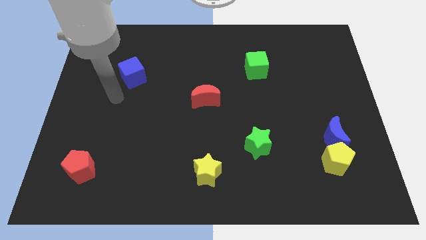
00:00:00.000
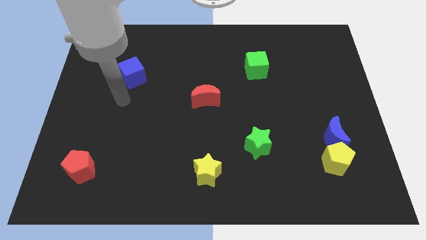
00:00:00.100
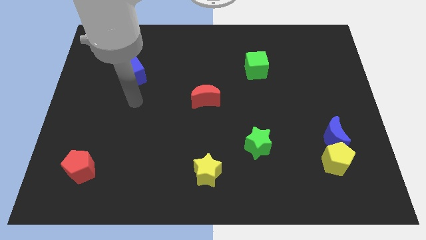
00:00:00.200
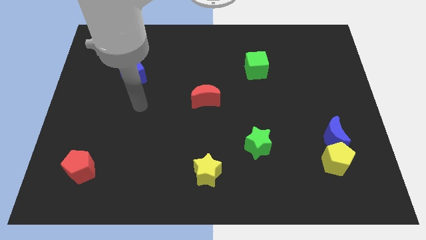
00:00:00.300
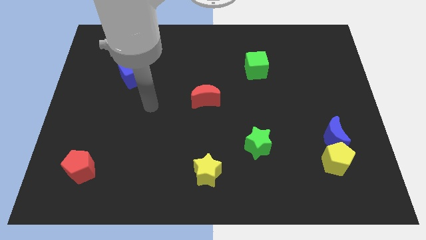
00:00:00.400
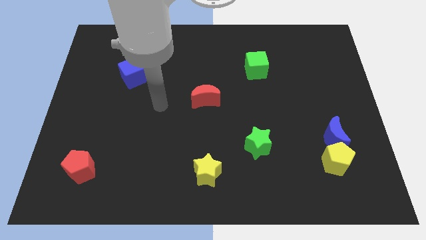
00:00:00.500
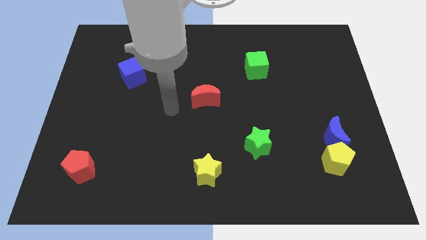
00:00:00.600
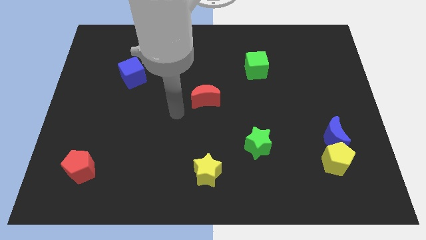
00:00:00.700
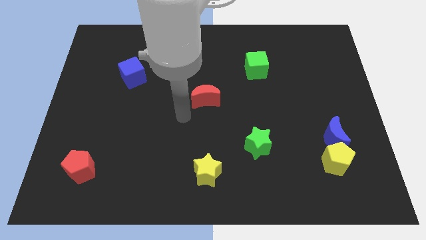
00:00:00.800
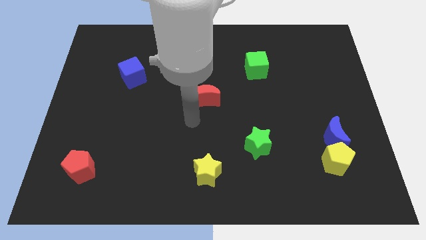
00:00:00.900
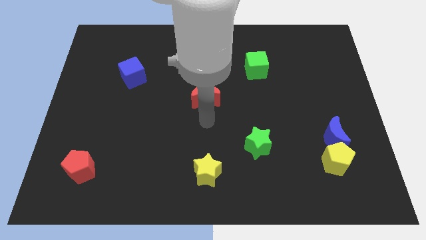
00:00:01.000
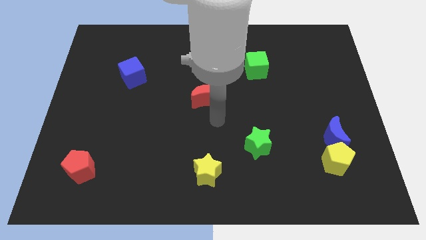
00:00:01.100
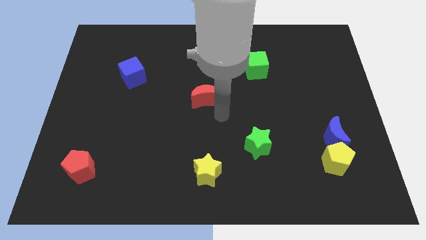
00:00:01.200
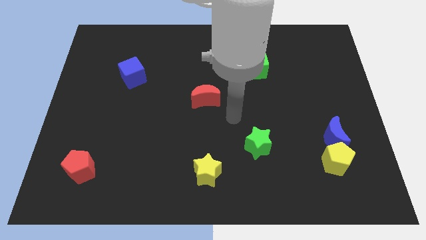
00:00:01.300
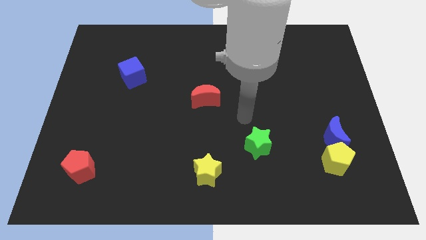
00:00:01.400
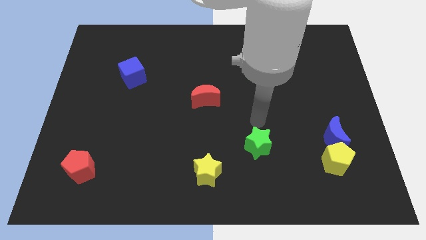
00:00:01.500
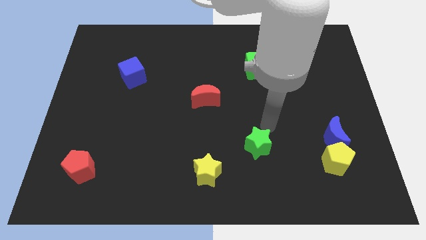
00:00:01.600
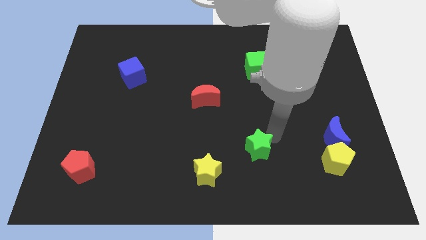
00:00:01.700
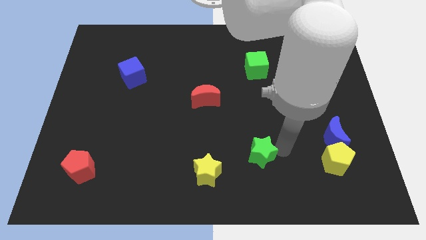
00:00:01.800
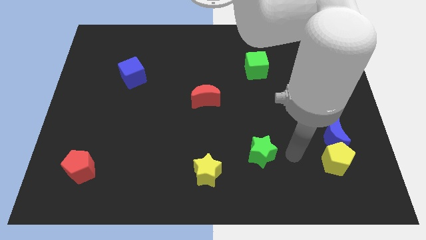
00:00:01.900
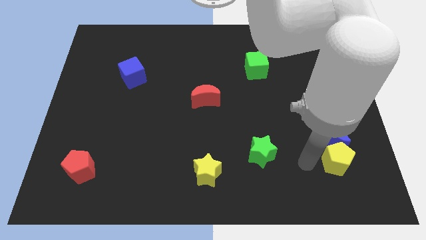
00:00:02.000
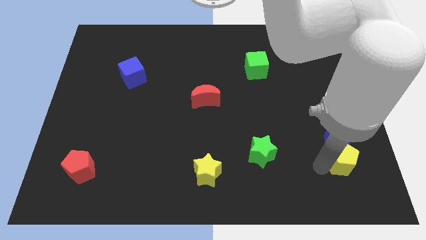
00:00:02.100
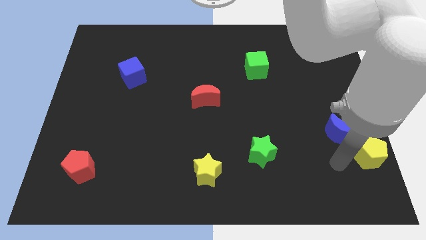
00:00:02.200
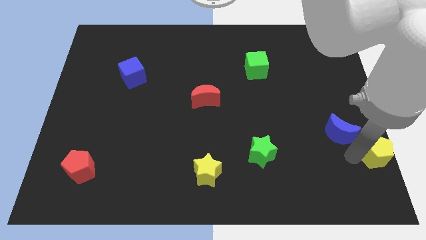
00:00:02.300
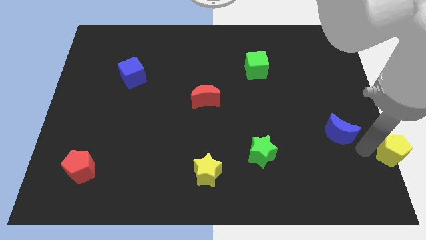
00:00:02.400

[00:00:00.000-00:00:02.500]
separate the blue moon from the yellow pentagon

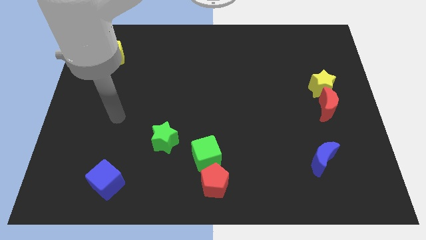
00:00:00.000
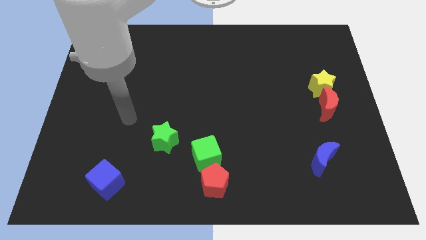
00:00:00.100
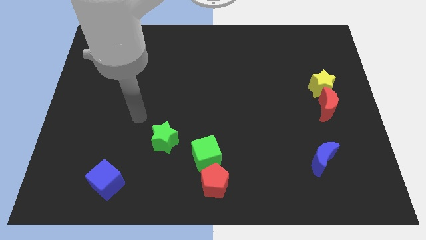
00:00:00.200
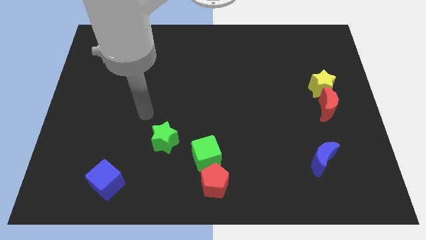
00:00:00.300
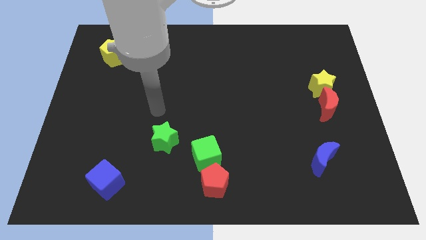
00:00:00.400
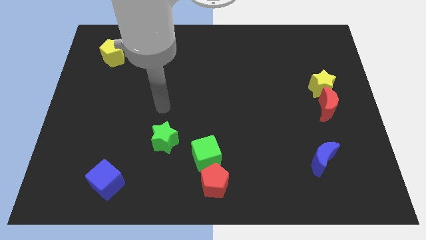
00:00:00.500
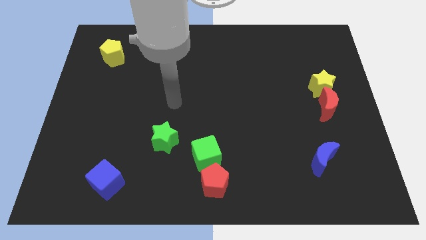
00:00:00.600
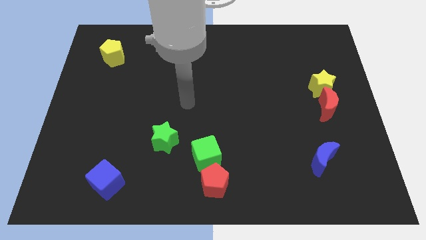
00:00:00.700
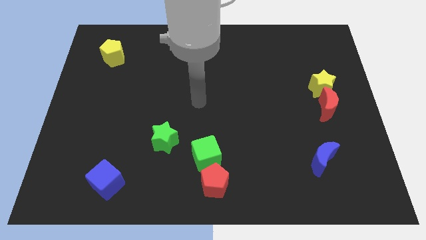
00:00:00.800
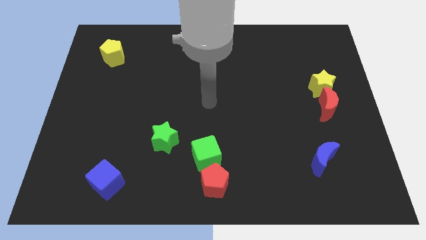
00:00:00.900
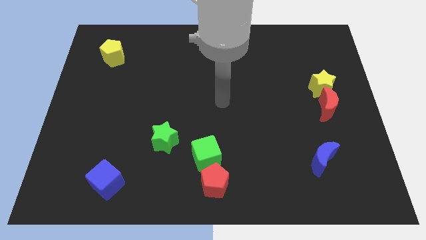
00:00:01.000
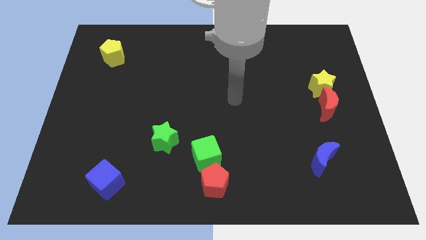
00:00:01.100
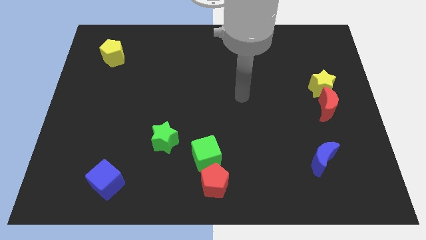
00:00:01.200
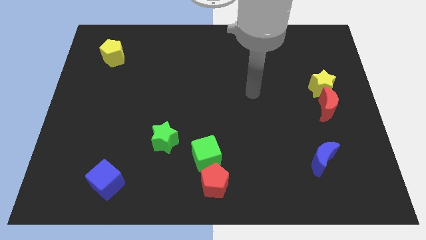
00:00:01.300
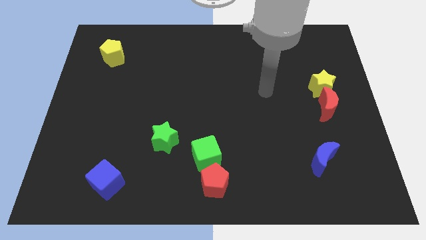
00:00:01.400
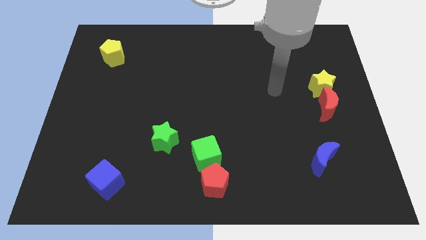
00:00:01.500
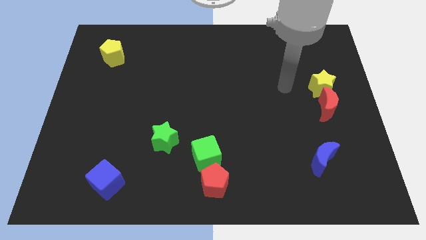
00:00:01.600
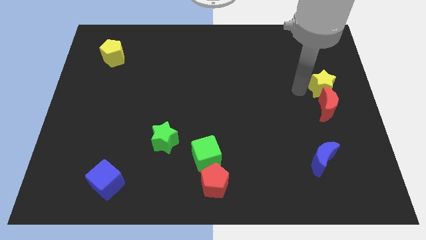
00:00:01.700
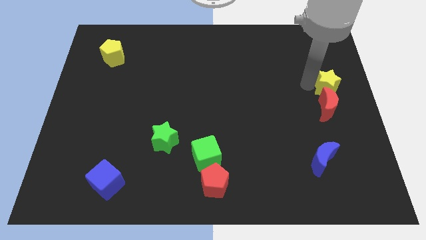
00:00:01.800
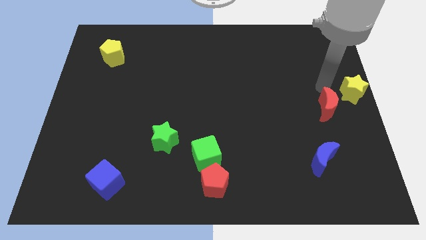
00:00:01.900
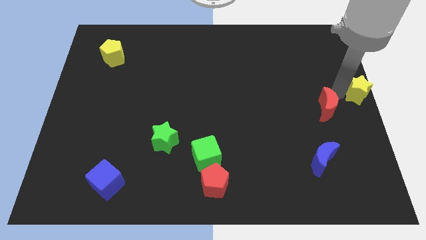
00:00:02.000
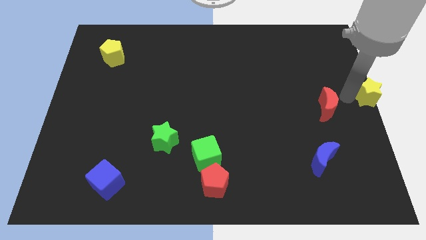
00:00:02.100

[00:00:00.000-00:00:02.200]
separate the red moon from the yellow star

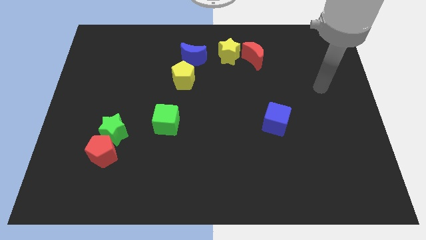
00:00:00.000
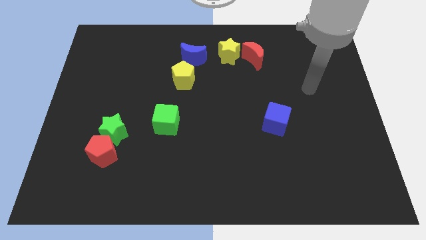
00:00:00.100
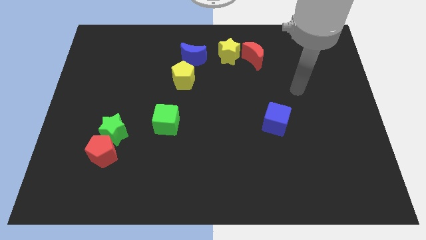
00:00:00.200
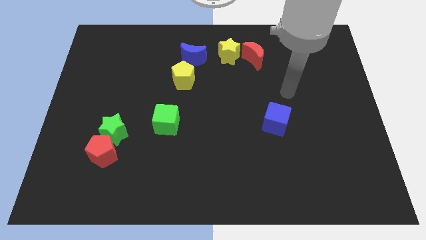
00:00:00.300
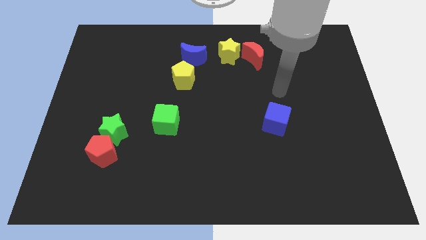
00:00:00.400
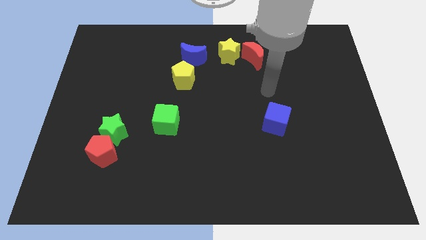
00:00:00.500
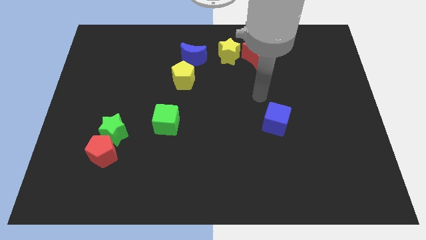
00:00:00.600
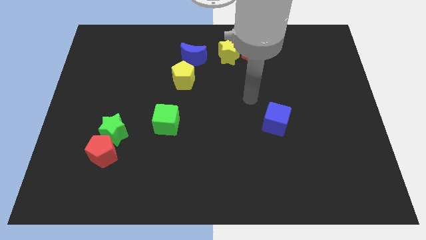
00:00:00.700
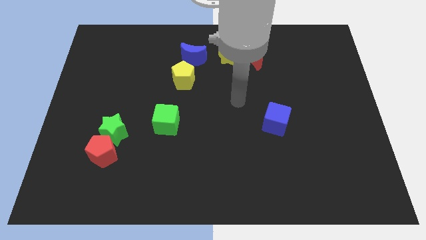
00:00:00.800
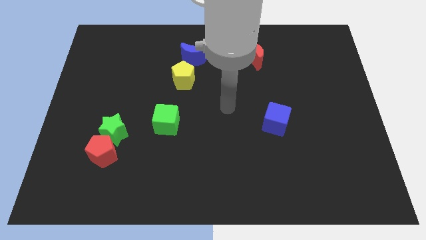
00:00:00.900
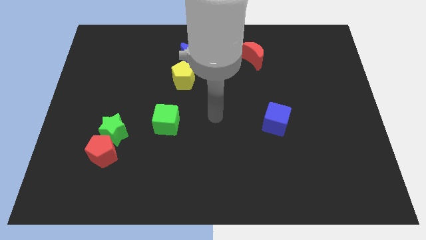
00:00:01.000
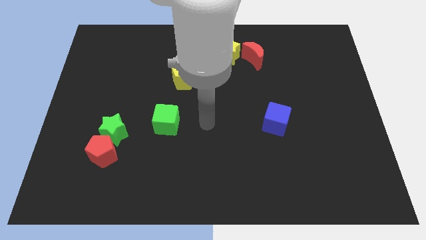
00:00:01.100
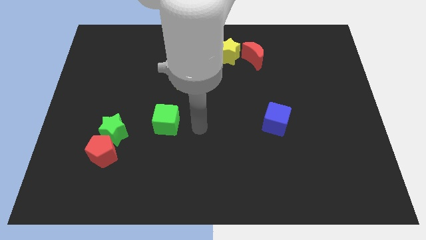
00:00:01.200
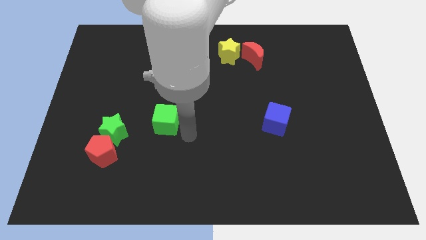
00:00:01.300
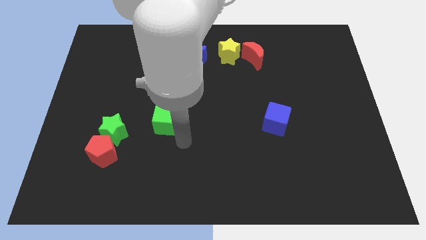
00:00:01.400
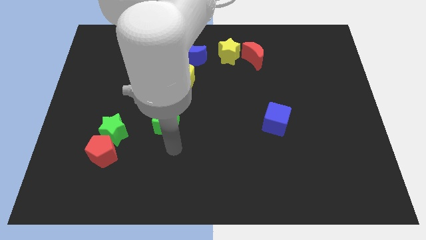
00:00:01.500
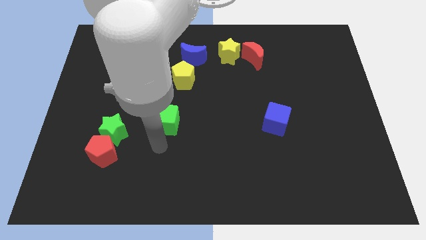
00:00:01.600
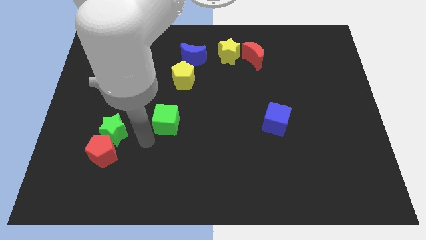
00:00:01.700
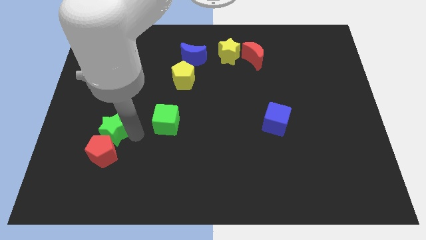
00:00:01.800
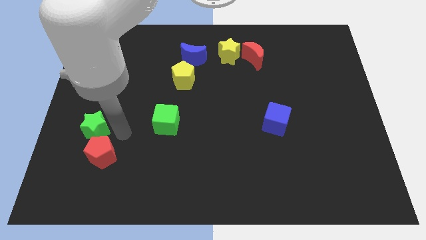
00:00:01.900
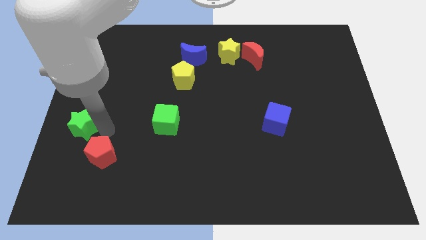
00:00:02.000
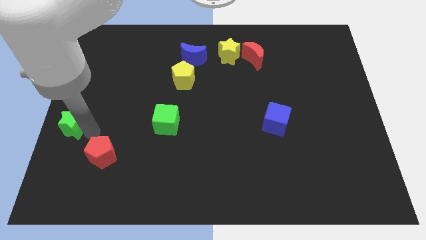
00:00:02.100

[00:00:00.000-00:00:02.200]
separate the red pentagon from the green star

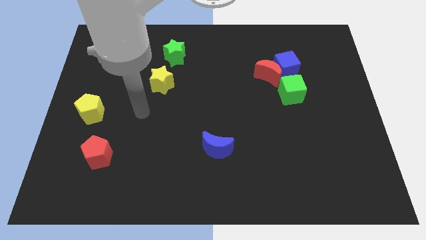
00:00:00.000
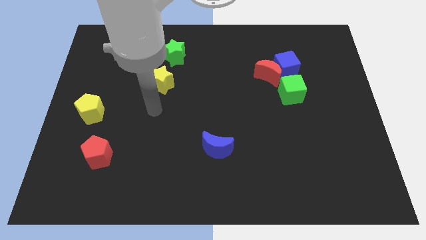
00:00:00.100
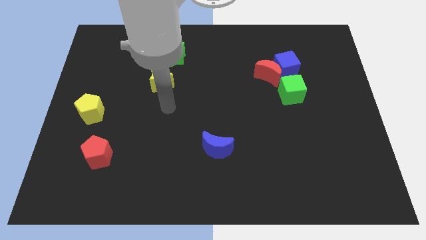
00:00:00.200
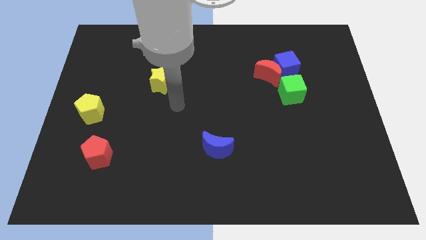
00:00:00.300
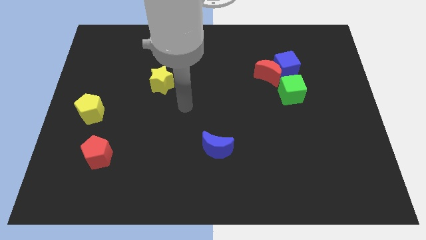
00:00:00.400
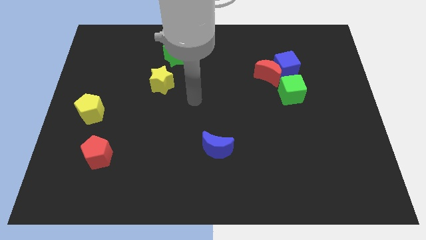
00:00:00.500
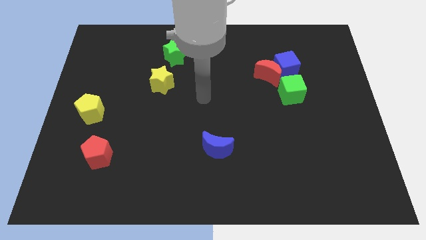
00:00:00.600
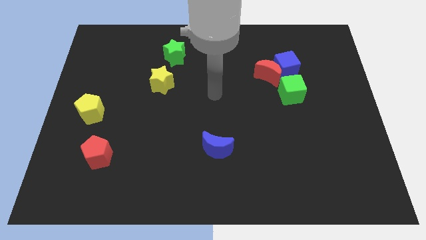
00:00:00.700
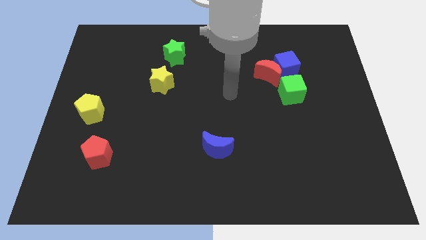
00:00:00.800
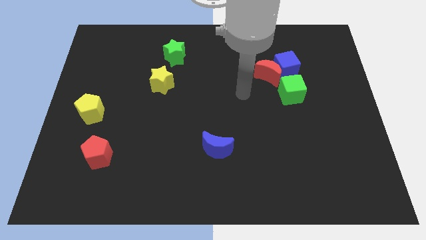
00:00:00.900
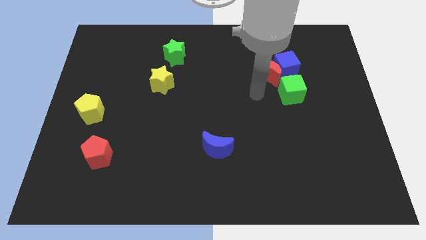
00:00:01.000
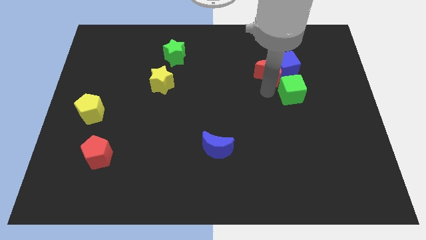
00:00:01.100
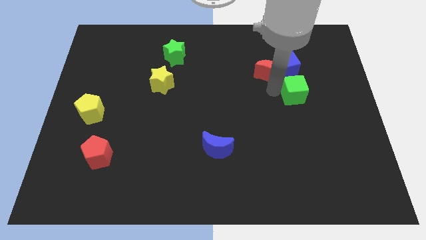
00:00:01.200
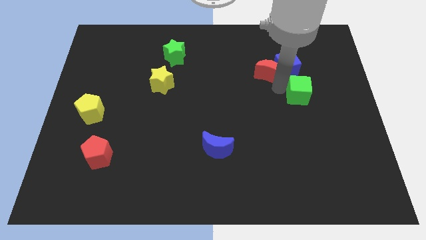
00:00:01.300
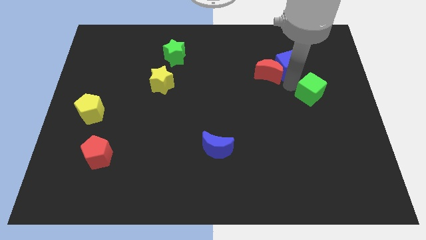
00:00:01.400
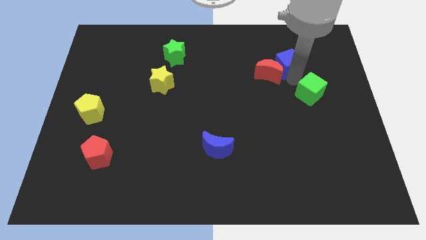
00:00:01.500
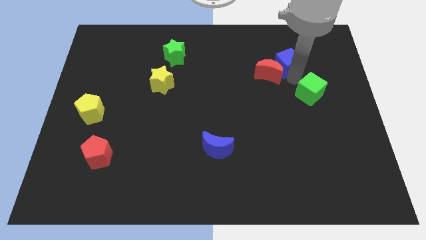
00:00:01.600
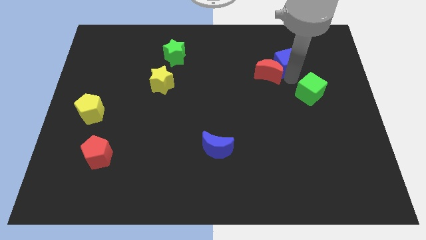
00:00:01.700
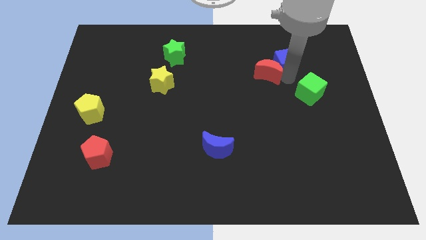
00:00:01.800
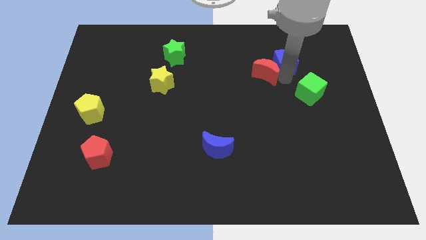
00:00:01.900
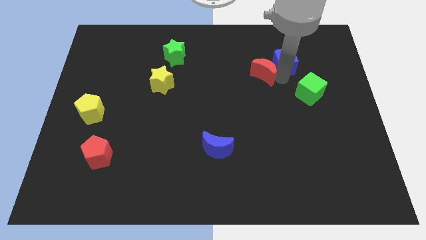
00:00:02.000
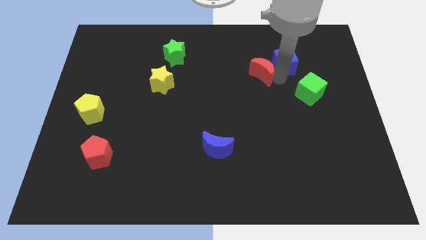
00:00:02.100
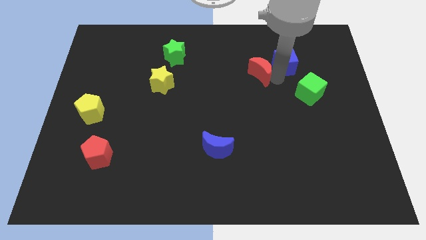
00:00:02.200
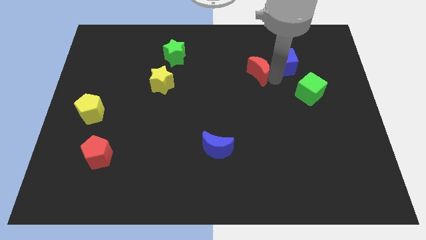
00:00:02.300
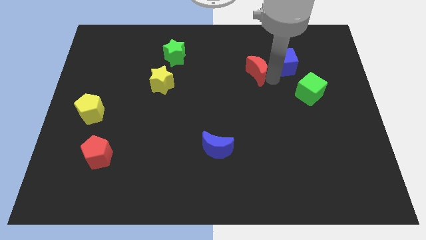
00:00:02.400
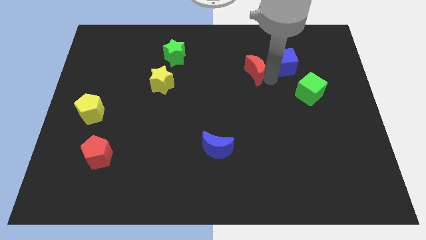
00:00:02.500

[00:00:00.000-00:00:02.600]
move the red moon away from the blue cube and green cube
